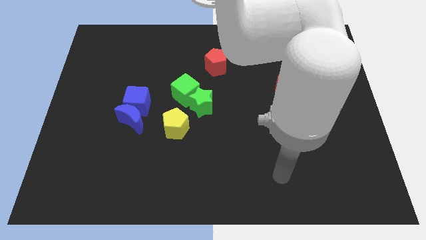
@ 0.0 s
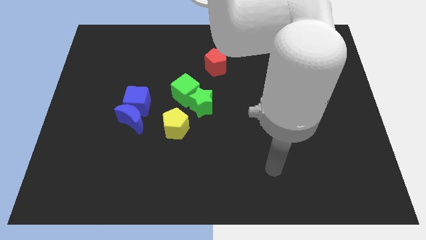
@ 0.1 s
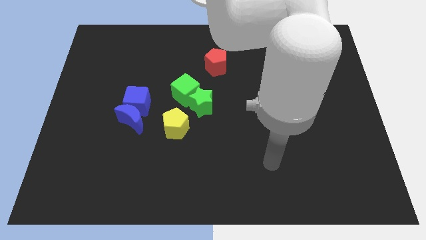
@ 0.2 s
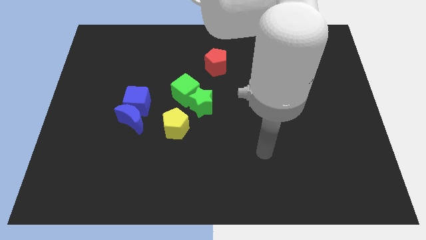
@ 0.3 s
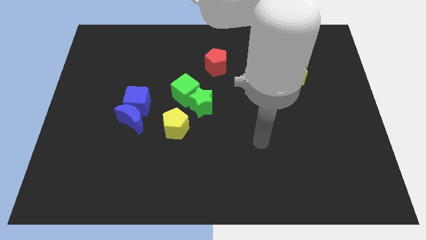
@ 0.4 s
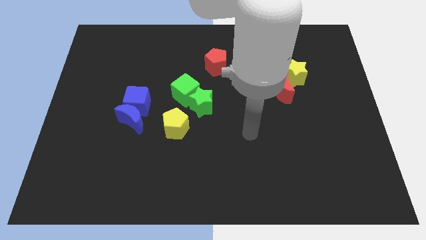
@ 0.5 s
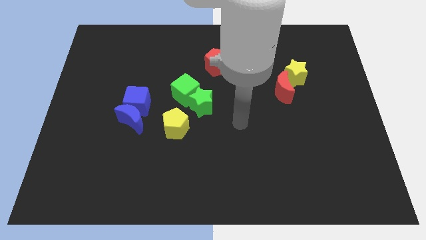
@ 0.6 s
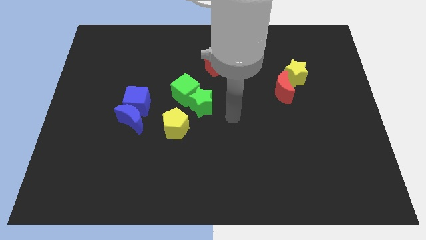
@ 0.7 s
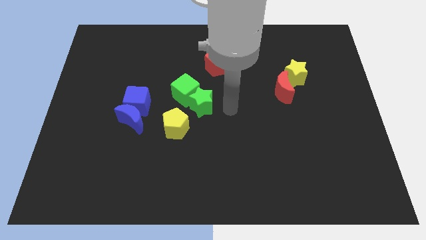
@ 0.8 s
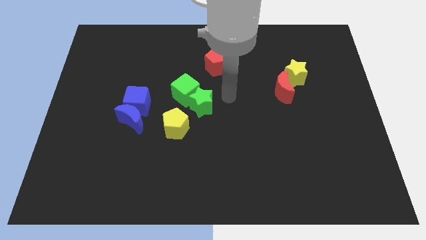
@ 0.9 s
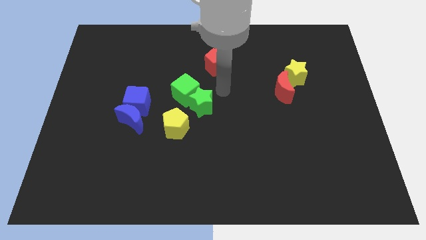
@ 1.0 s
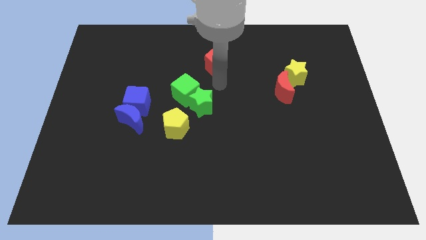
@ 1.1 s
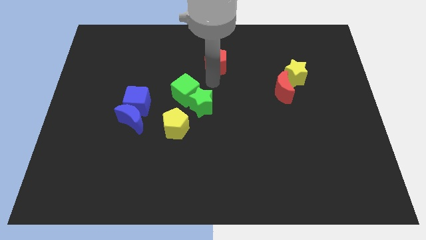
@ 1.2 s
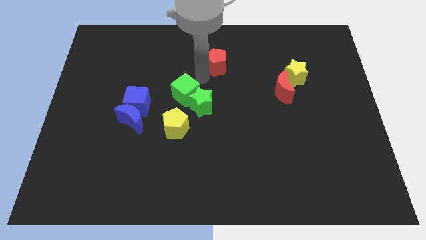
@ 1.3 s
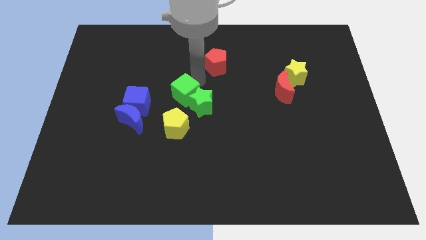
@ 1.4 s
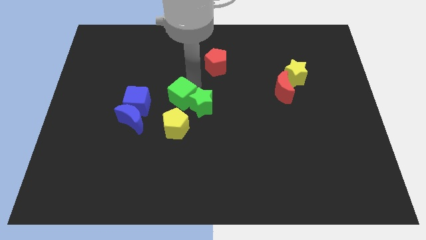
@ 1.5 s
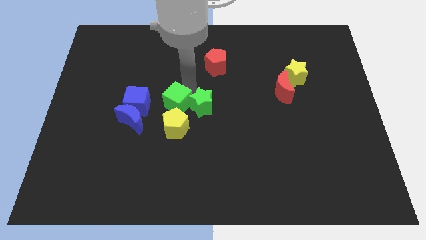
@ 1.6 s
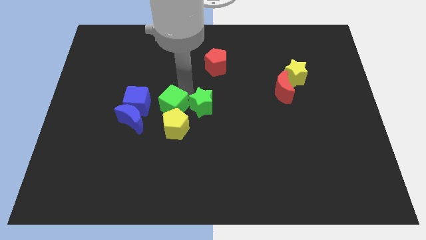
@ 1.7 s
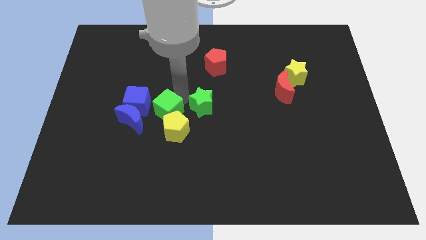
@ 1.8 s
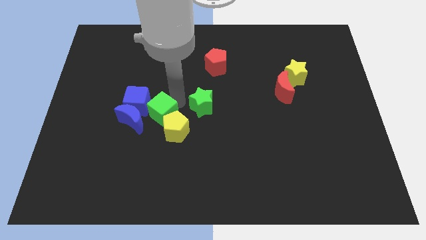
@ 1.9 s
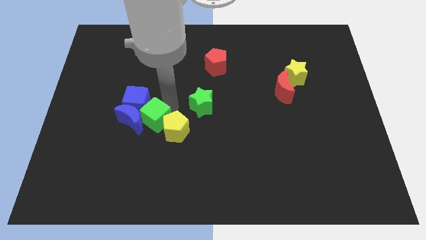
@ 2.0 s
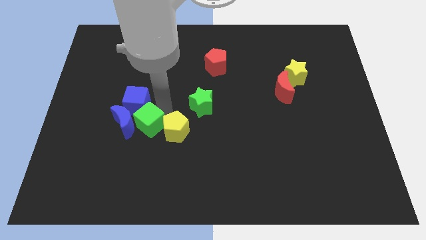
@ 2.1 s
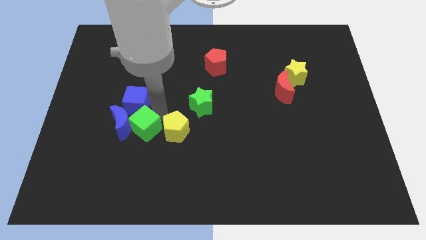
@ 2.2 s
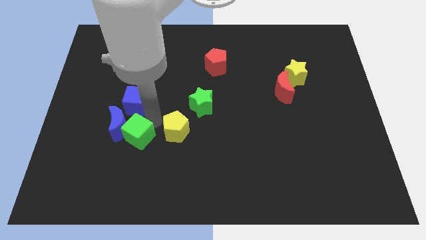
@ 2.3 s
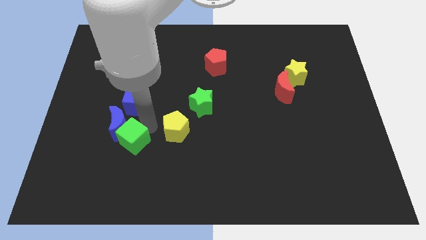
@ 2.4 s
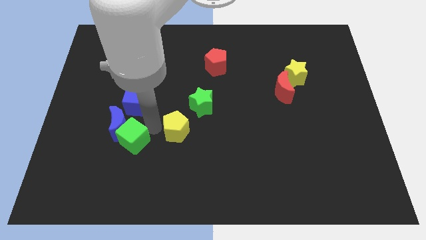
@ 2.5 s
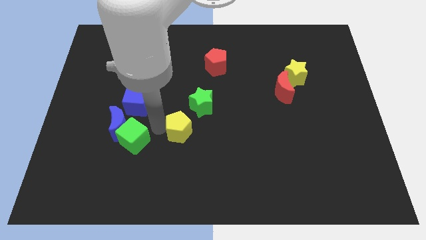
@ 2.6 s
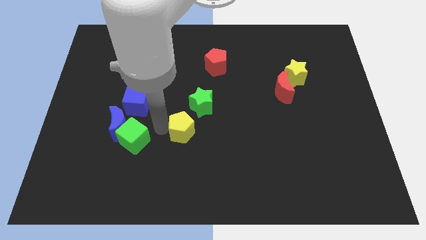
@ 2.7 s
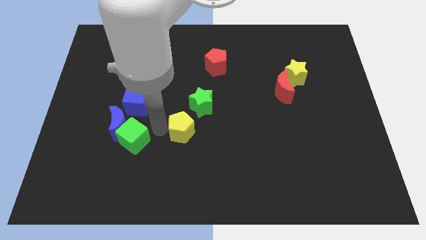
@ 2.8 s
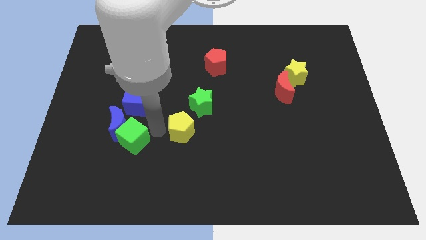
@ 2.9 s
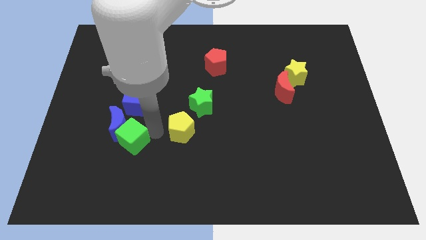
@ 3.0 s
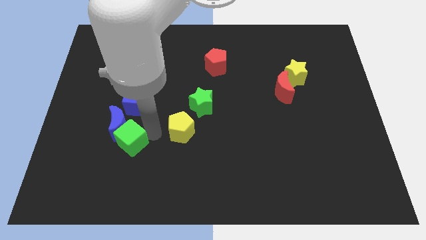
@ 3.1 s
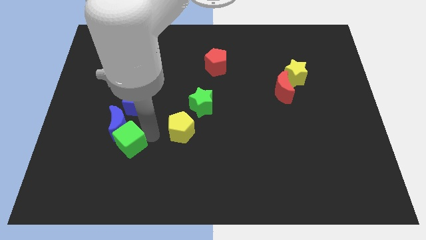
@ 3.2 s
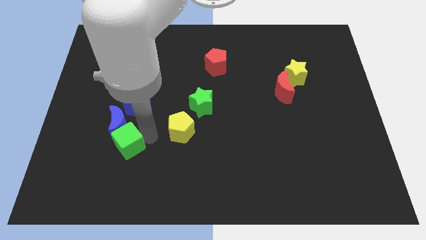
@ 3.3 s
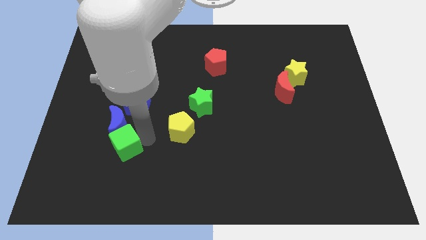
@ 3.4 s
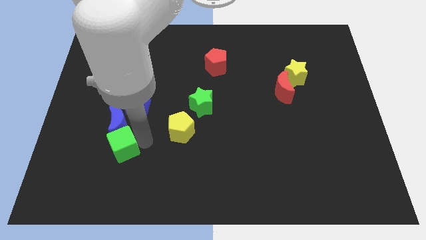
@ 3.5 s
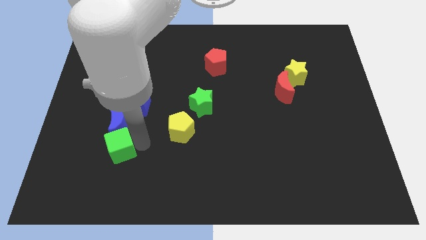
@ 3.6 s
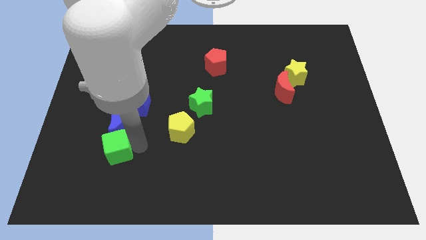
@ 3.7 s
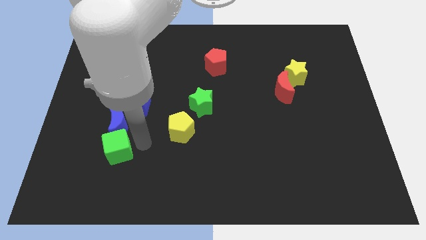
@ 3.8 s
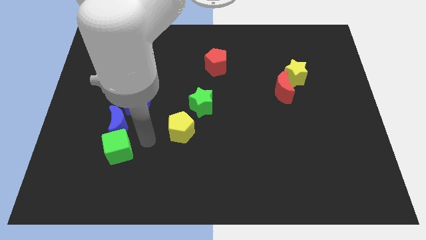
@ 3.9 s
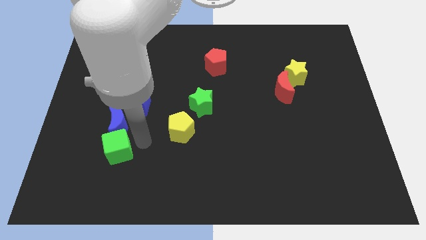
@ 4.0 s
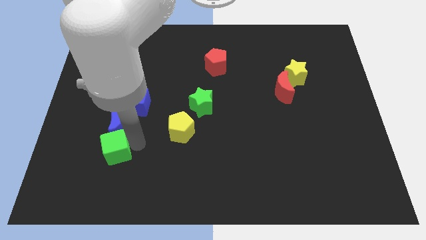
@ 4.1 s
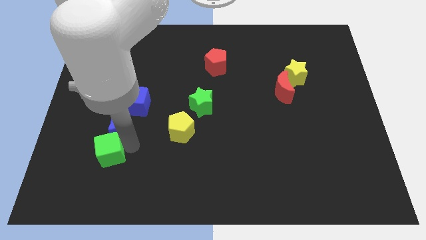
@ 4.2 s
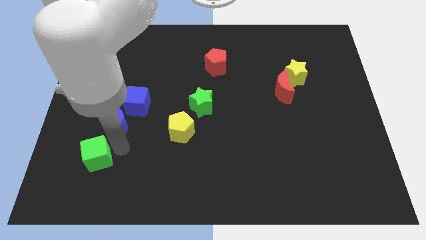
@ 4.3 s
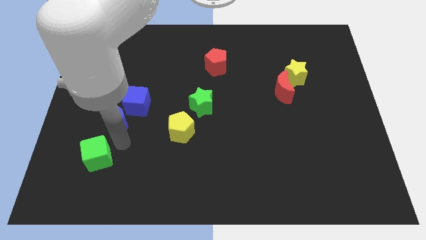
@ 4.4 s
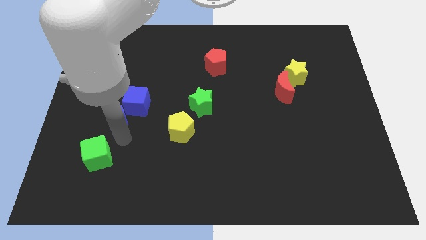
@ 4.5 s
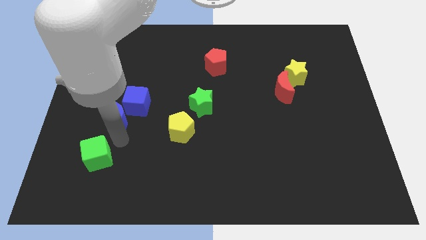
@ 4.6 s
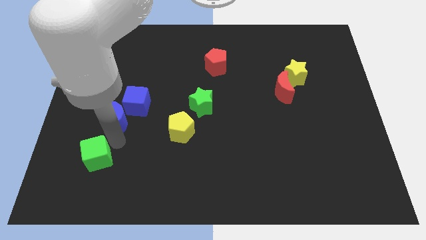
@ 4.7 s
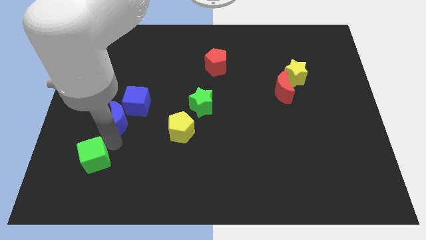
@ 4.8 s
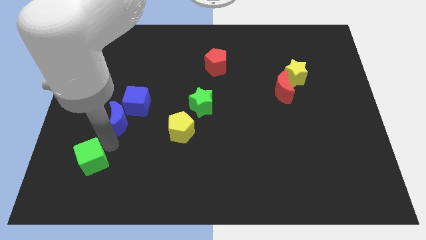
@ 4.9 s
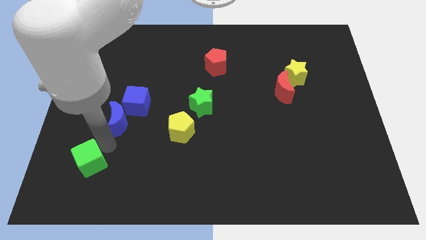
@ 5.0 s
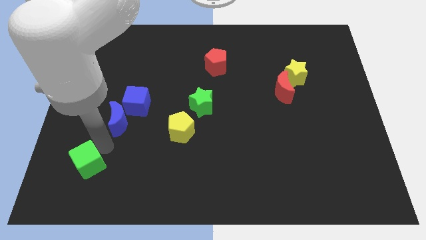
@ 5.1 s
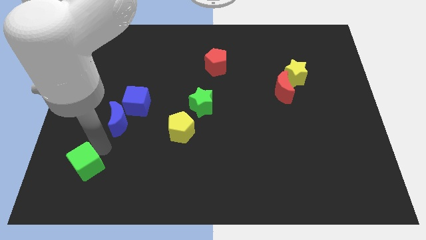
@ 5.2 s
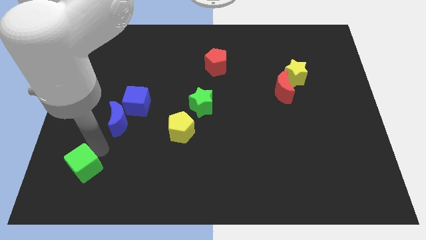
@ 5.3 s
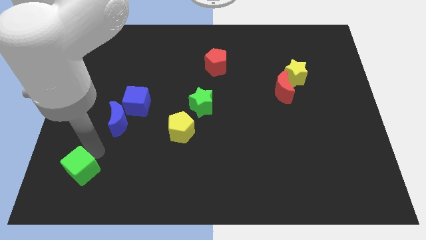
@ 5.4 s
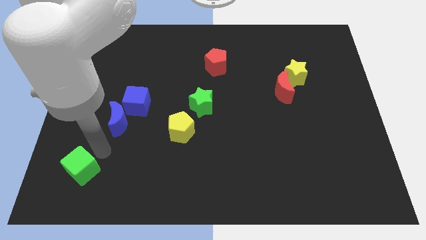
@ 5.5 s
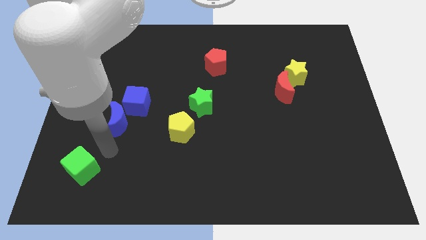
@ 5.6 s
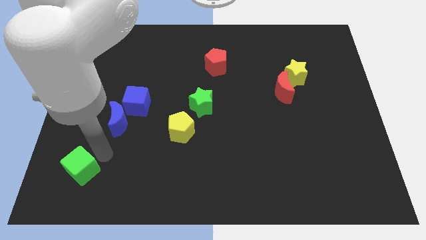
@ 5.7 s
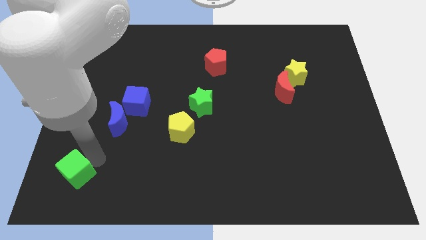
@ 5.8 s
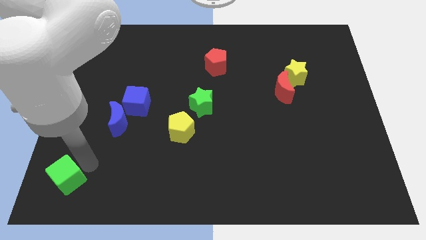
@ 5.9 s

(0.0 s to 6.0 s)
move the green cube to the bottom left of the board
